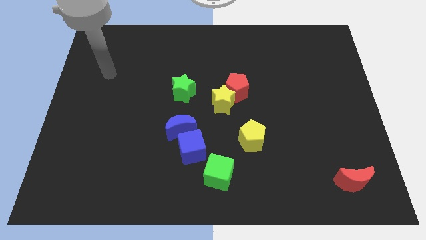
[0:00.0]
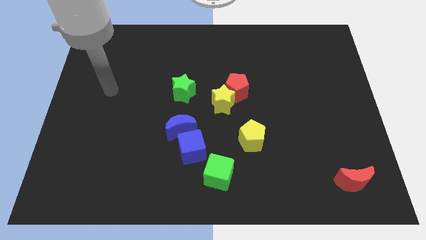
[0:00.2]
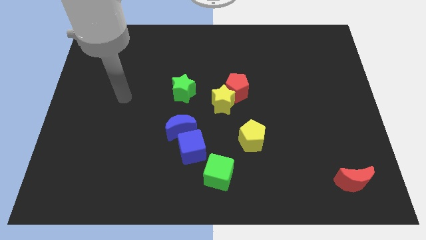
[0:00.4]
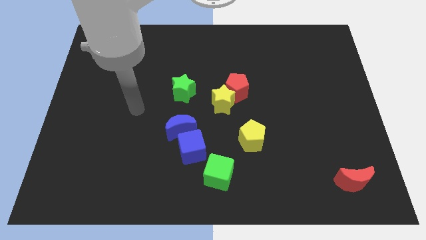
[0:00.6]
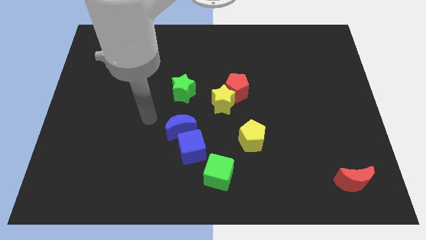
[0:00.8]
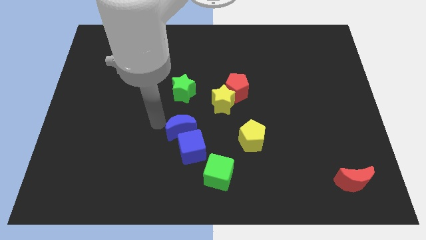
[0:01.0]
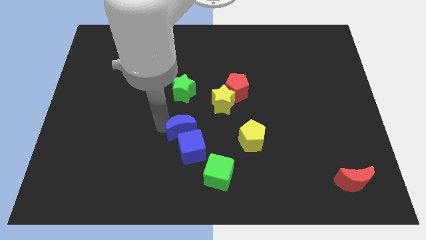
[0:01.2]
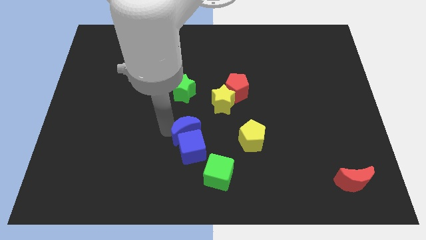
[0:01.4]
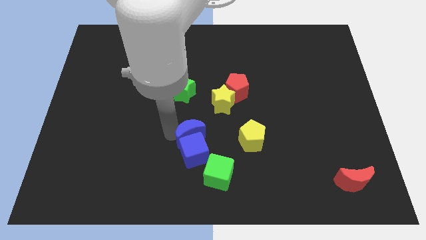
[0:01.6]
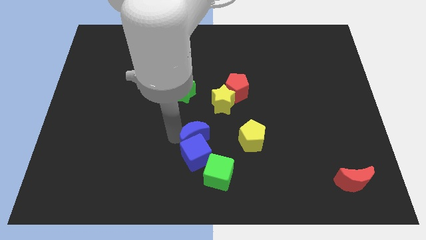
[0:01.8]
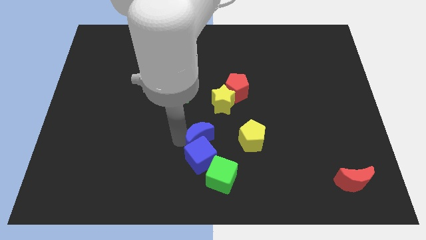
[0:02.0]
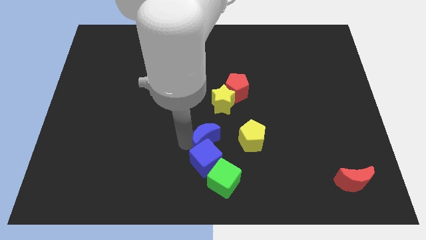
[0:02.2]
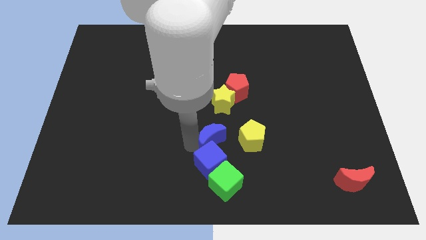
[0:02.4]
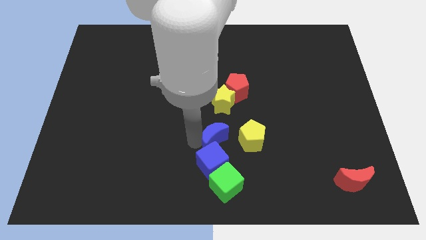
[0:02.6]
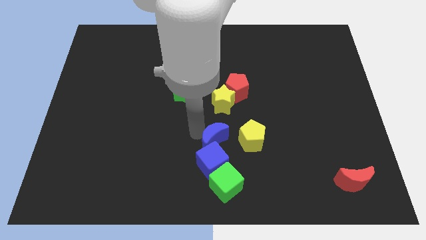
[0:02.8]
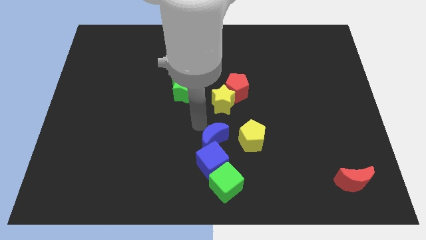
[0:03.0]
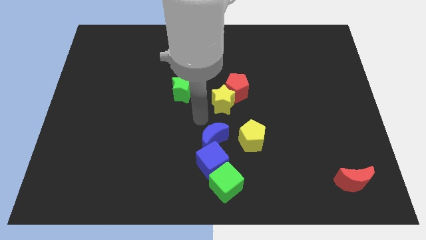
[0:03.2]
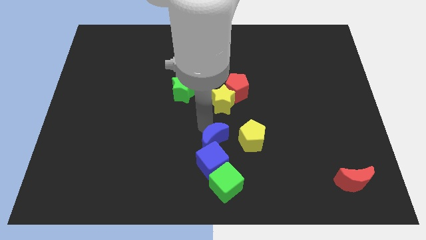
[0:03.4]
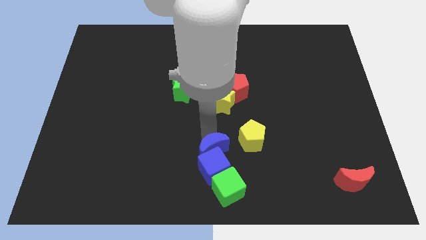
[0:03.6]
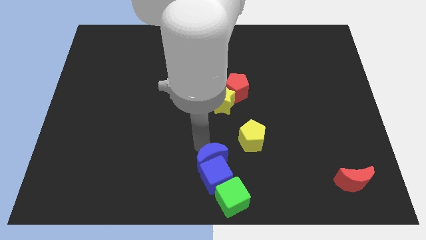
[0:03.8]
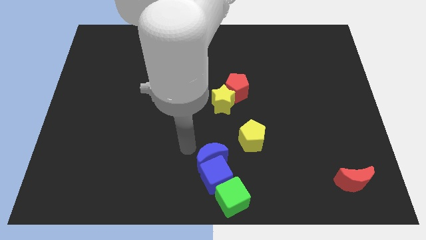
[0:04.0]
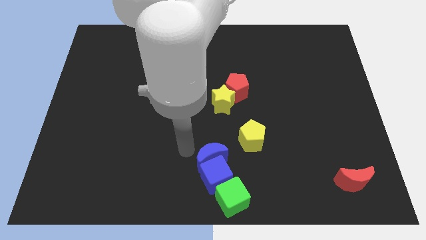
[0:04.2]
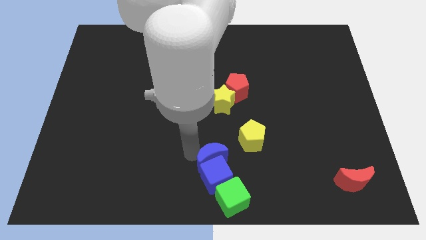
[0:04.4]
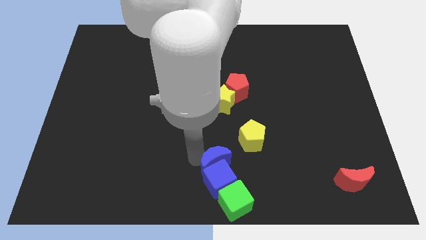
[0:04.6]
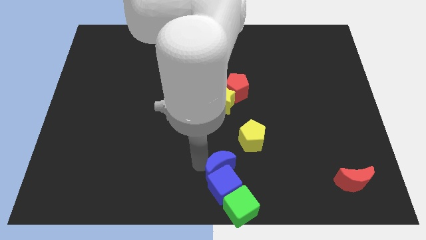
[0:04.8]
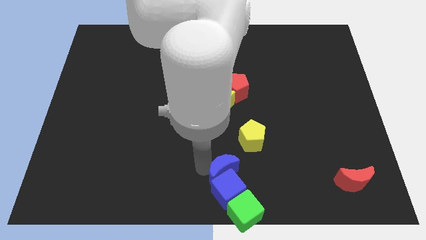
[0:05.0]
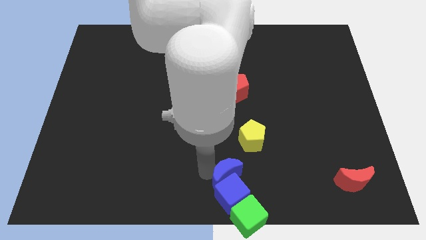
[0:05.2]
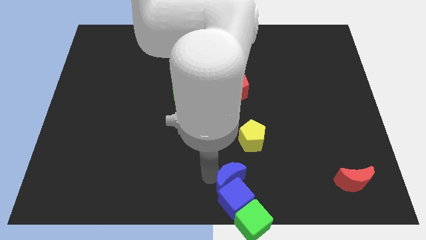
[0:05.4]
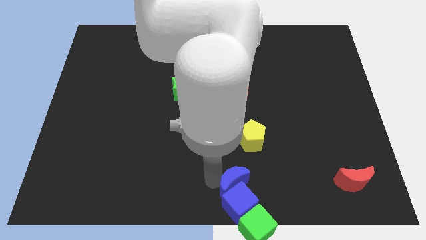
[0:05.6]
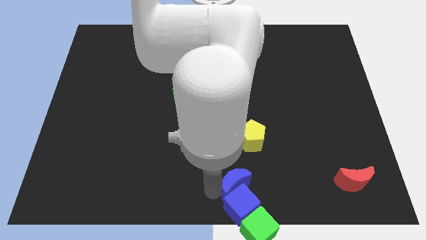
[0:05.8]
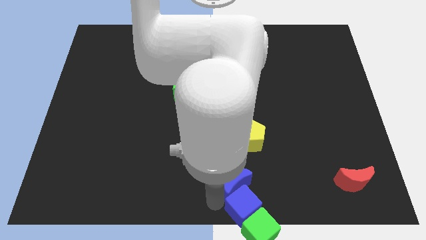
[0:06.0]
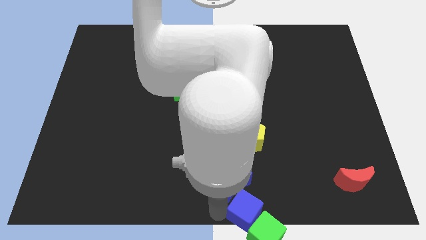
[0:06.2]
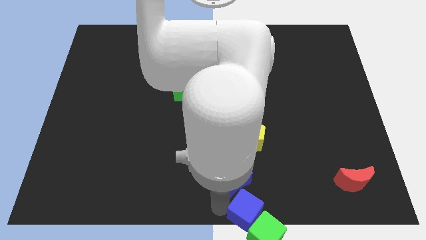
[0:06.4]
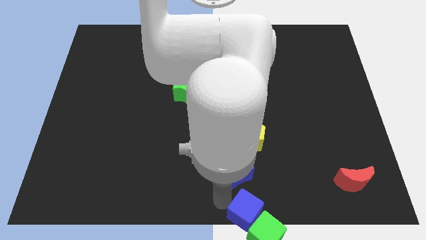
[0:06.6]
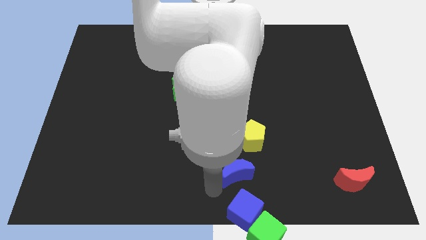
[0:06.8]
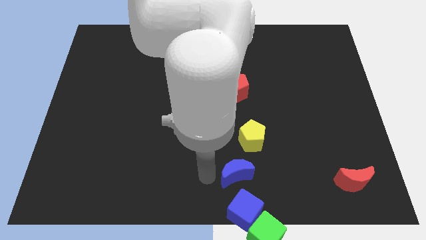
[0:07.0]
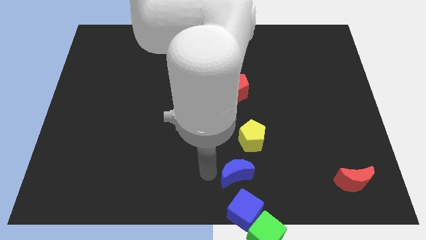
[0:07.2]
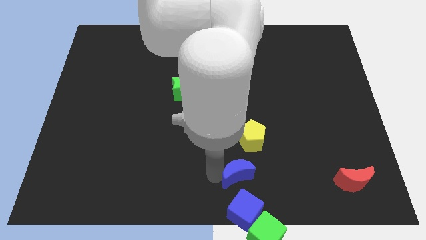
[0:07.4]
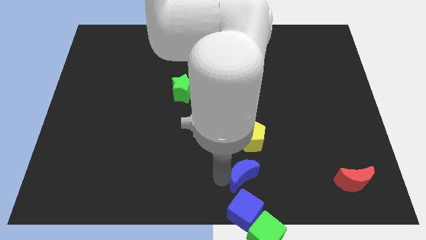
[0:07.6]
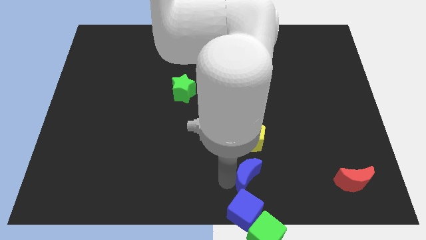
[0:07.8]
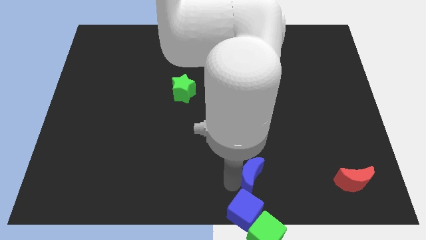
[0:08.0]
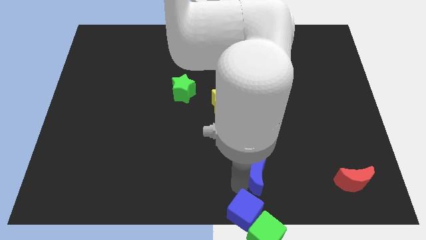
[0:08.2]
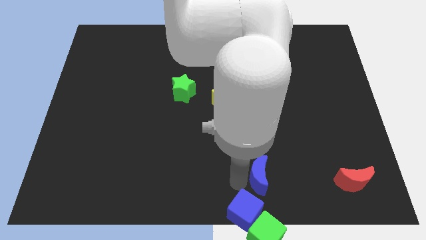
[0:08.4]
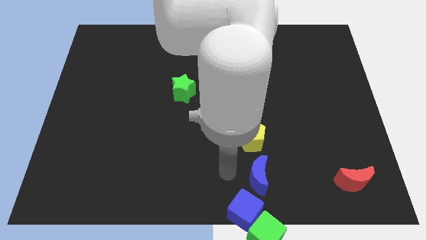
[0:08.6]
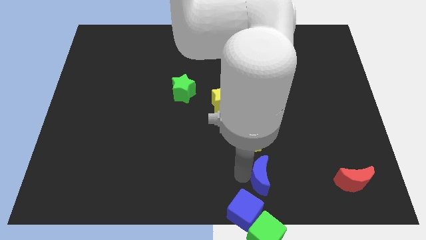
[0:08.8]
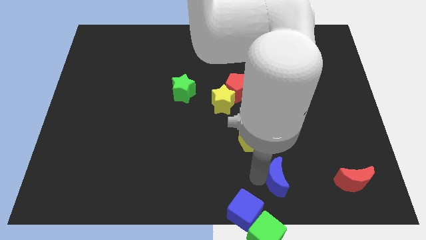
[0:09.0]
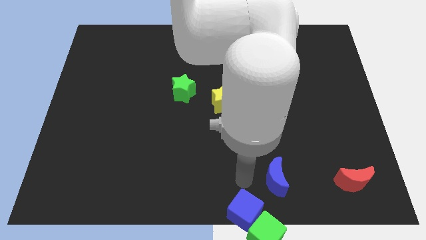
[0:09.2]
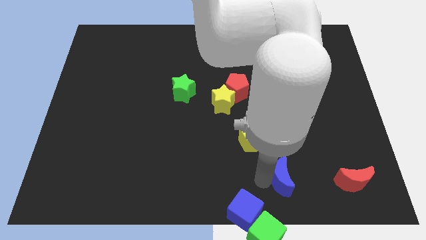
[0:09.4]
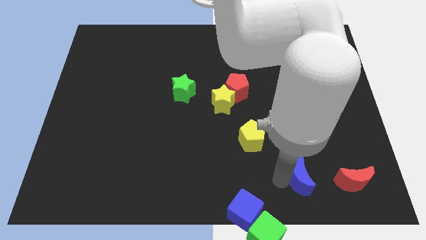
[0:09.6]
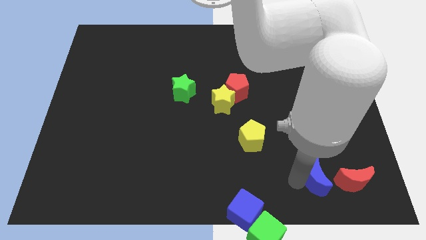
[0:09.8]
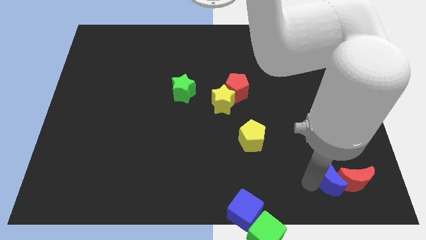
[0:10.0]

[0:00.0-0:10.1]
push the blue moon to the red moon

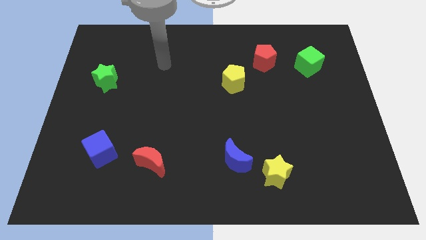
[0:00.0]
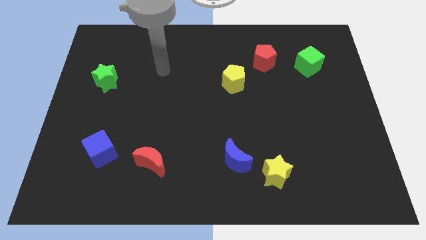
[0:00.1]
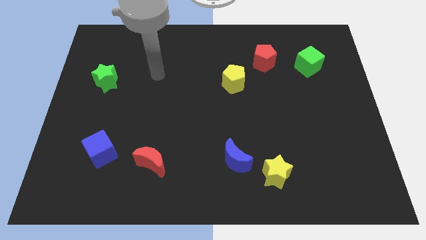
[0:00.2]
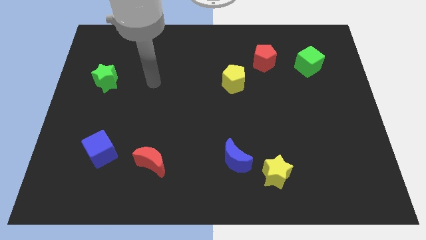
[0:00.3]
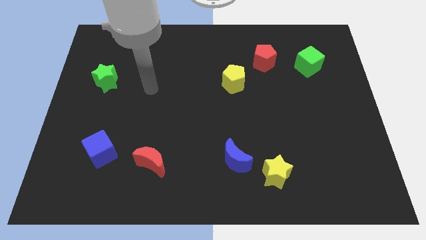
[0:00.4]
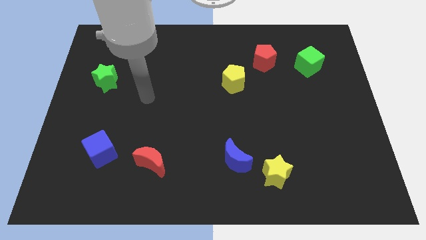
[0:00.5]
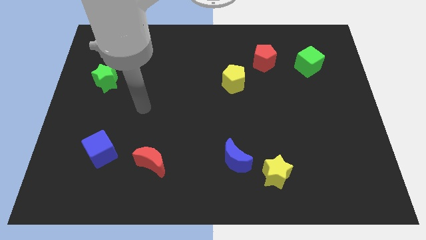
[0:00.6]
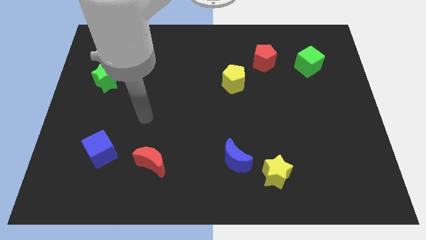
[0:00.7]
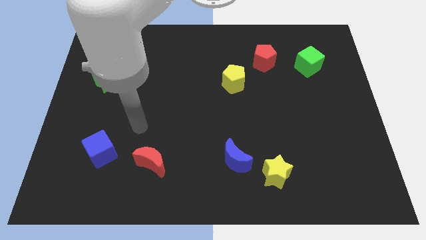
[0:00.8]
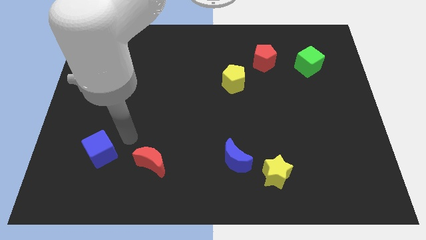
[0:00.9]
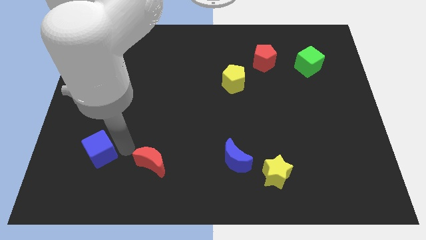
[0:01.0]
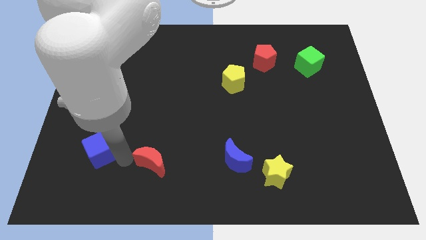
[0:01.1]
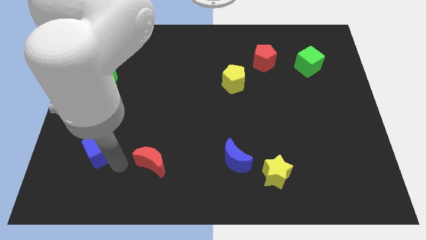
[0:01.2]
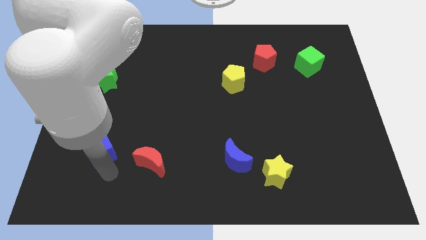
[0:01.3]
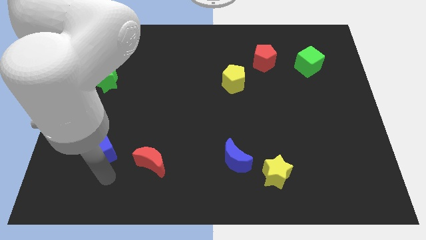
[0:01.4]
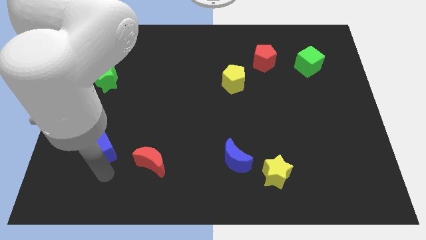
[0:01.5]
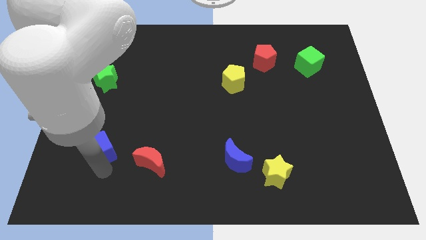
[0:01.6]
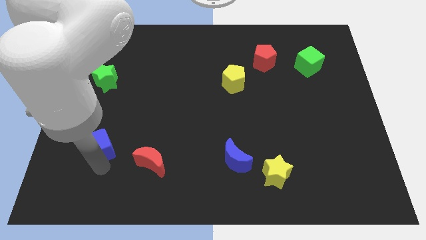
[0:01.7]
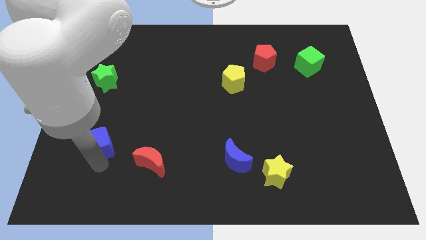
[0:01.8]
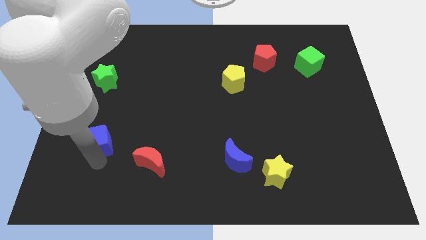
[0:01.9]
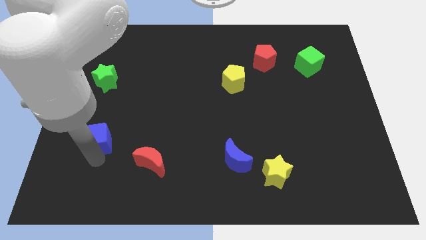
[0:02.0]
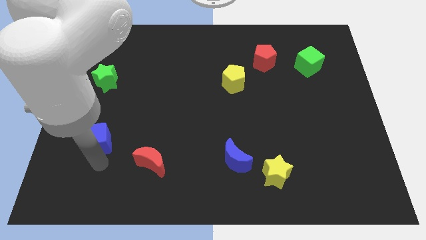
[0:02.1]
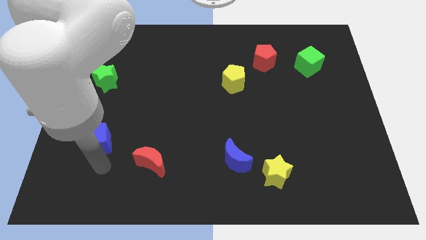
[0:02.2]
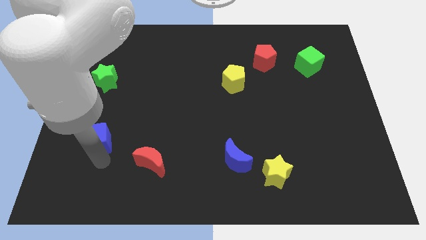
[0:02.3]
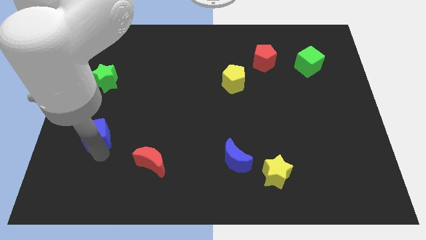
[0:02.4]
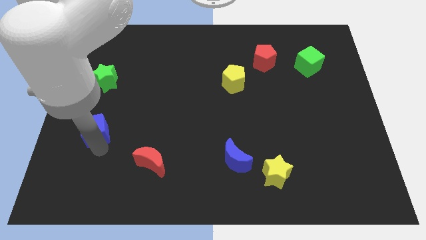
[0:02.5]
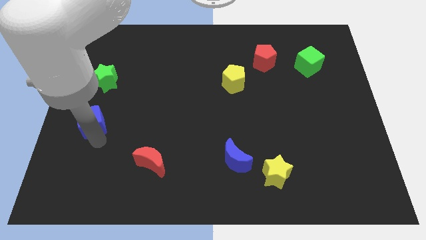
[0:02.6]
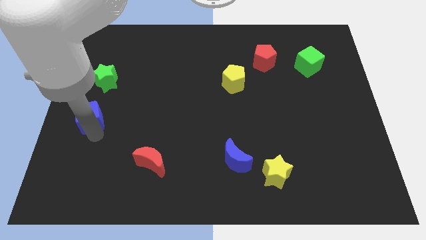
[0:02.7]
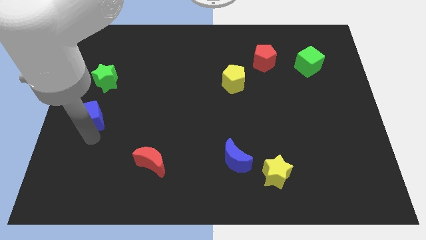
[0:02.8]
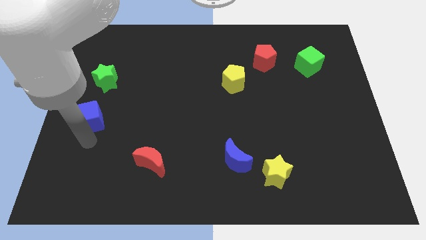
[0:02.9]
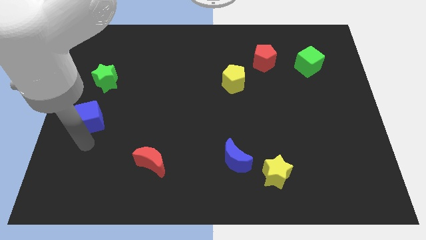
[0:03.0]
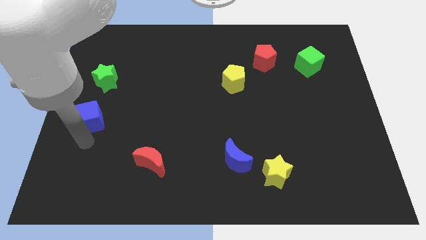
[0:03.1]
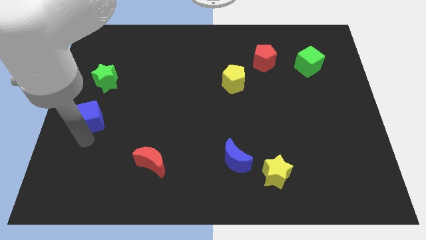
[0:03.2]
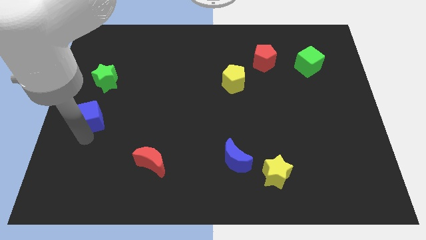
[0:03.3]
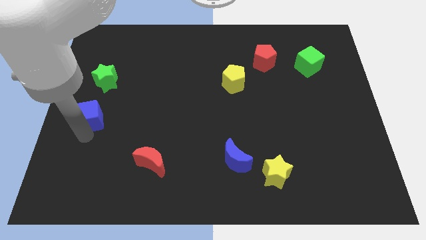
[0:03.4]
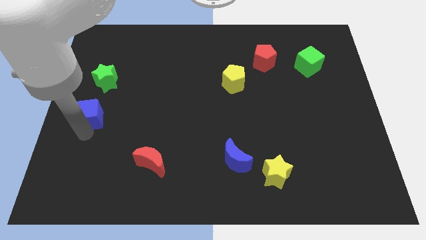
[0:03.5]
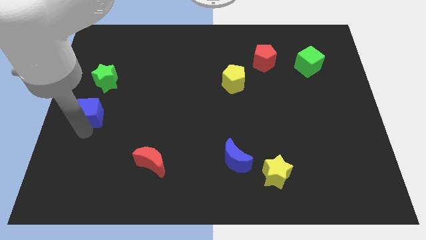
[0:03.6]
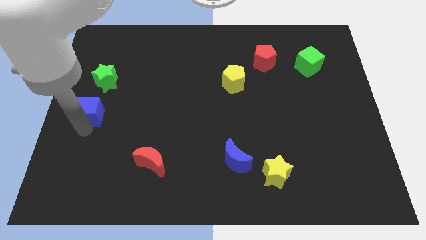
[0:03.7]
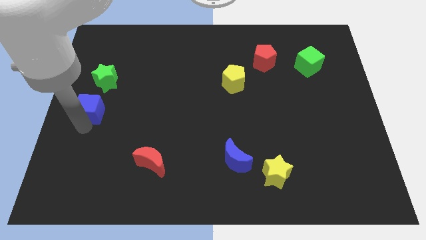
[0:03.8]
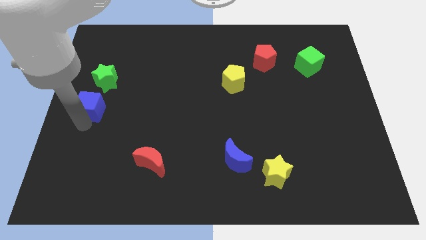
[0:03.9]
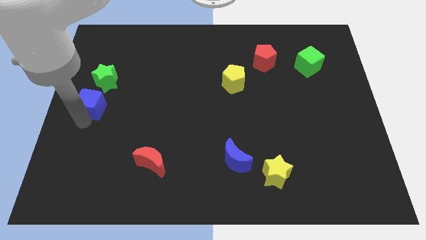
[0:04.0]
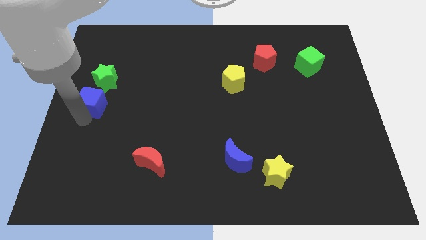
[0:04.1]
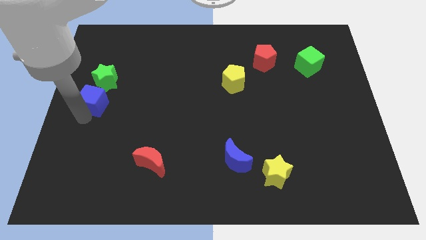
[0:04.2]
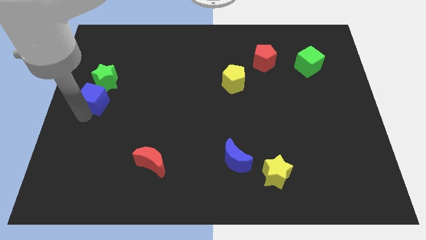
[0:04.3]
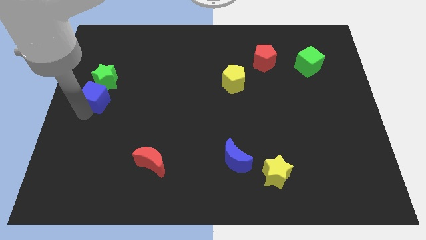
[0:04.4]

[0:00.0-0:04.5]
move the blue cube to the green star
